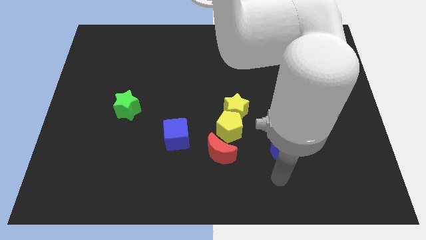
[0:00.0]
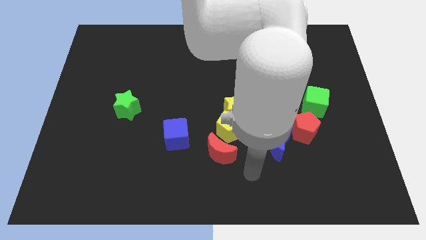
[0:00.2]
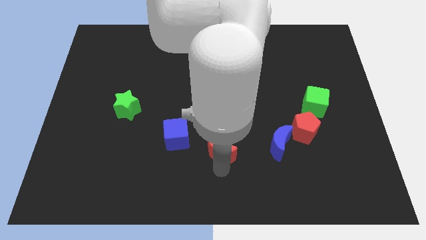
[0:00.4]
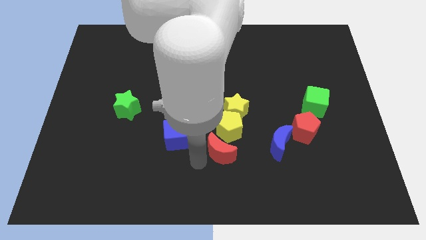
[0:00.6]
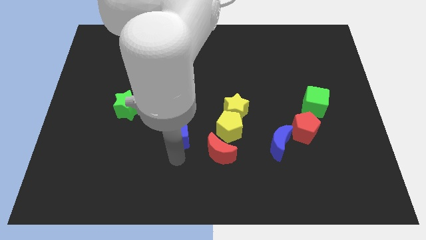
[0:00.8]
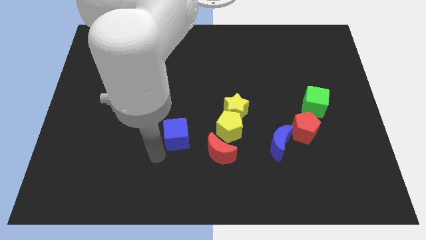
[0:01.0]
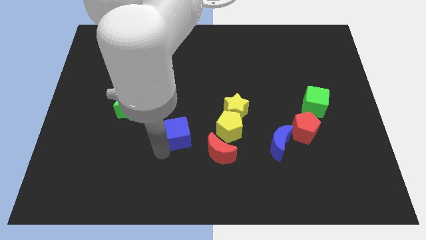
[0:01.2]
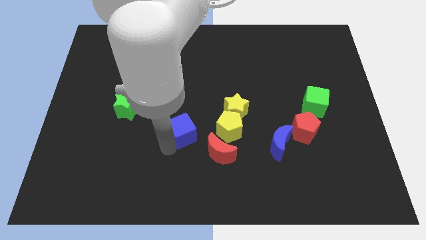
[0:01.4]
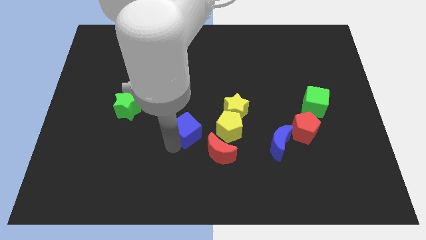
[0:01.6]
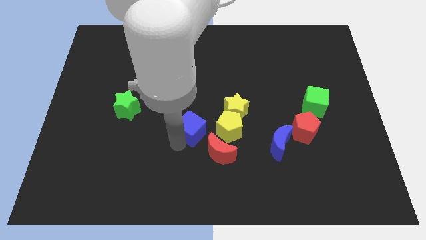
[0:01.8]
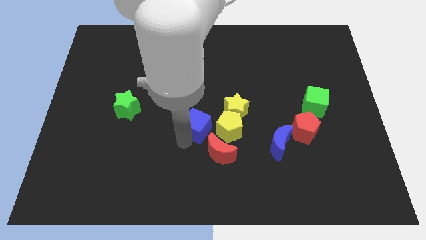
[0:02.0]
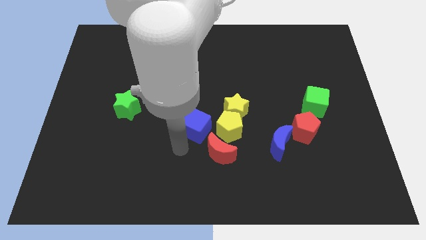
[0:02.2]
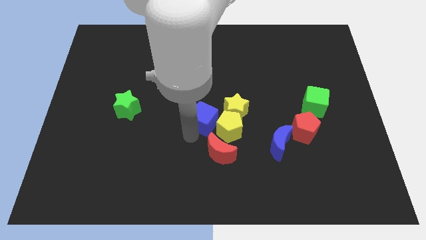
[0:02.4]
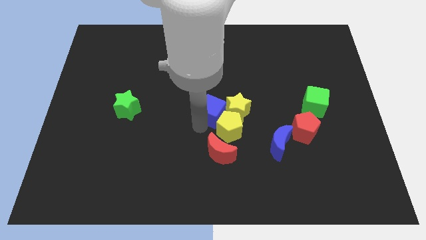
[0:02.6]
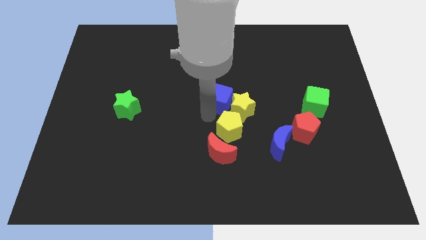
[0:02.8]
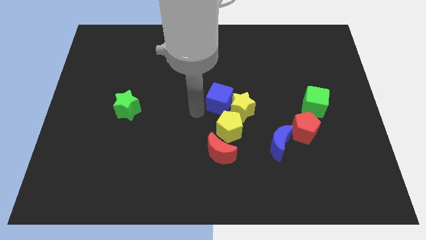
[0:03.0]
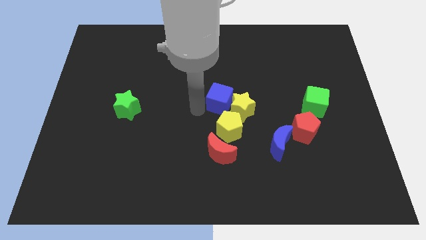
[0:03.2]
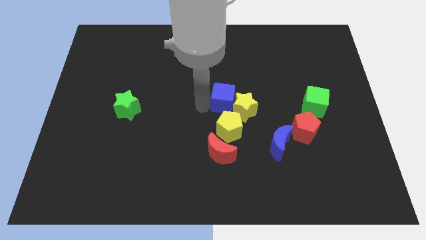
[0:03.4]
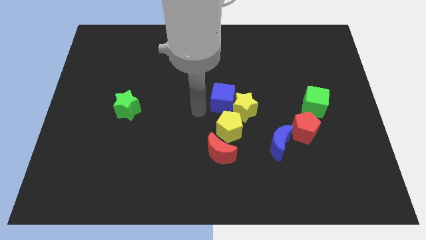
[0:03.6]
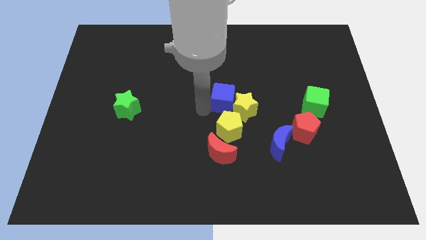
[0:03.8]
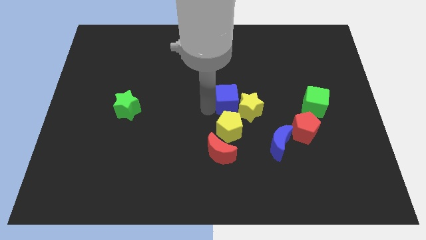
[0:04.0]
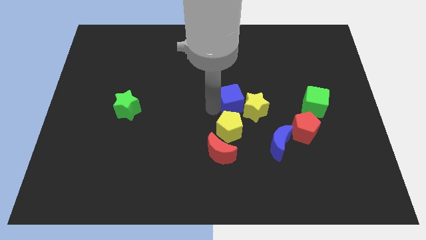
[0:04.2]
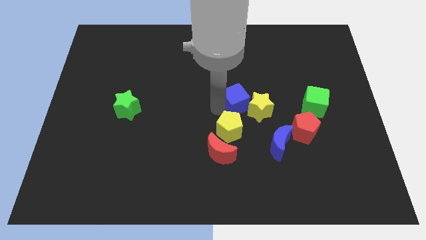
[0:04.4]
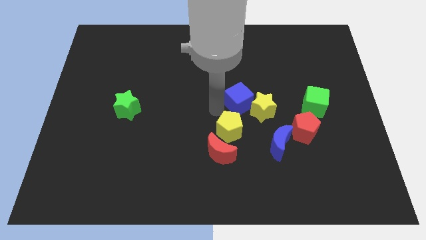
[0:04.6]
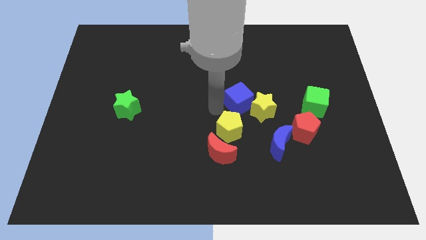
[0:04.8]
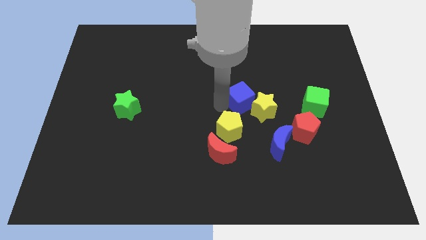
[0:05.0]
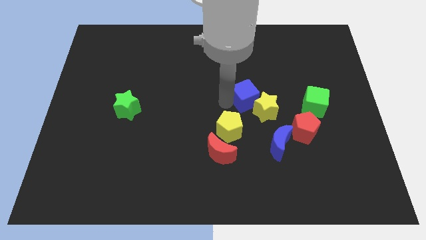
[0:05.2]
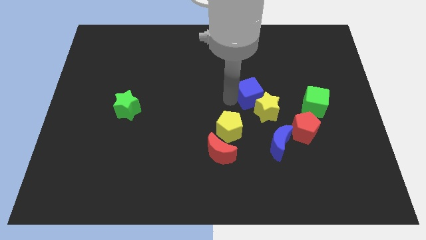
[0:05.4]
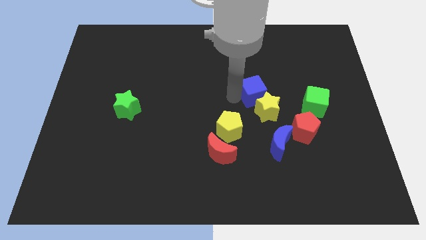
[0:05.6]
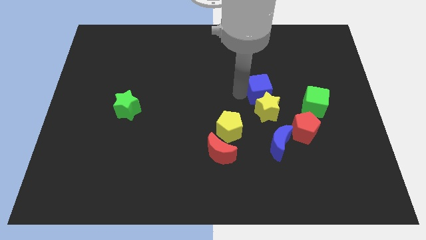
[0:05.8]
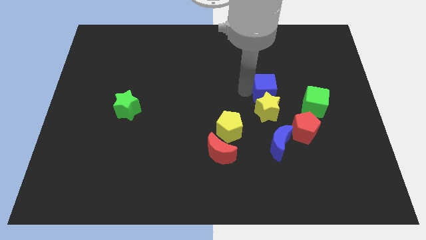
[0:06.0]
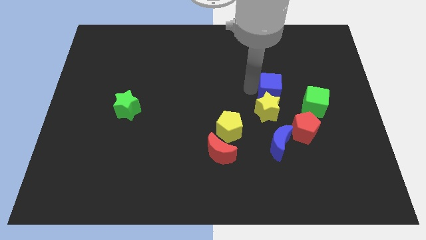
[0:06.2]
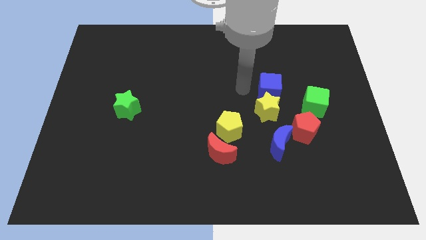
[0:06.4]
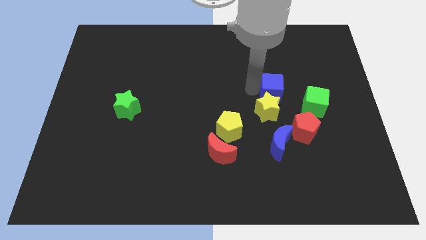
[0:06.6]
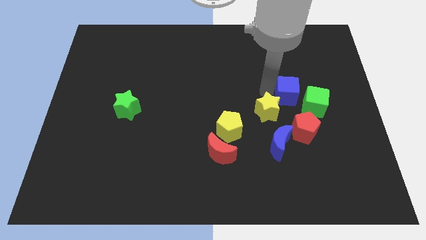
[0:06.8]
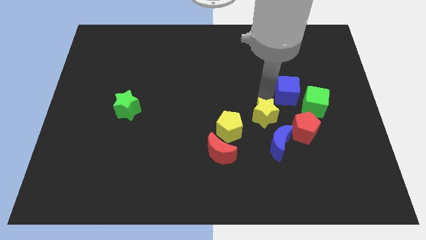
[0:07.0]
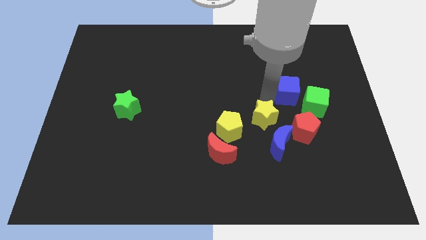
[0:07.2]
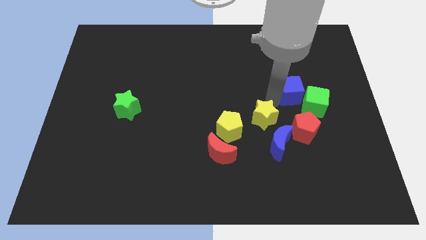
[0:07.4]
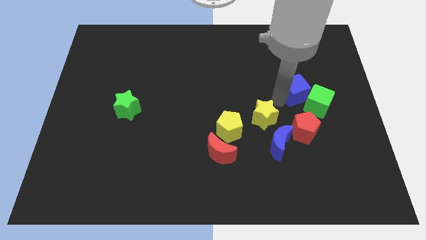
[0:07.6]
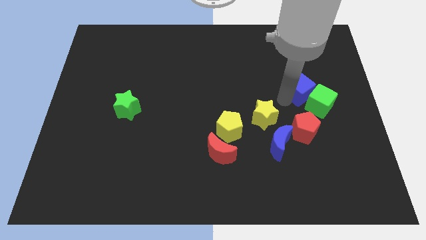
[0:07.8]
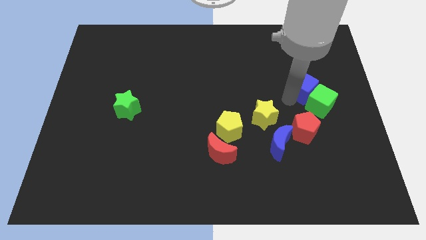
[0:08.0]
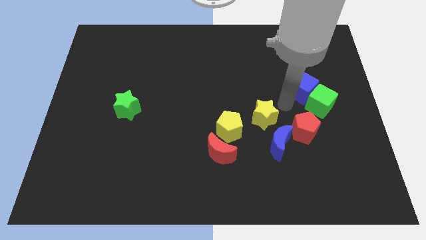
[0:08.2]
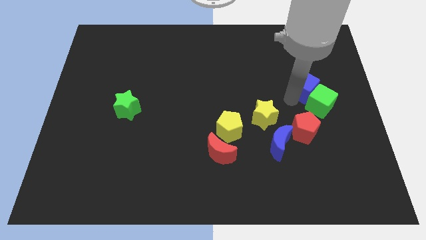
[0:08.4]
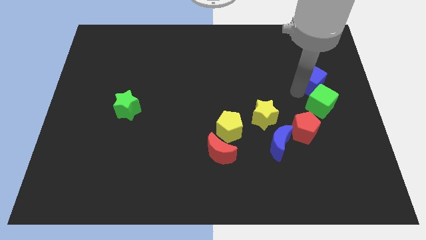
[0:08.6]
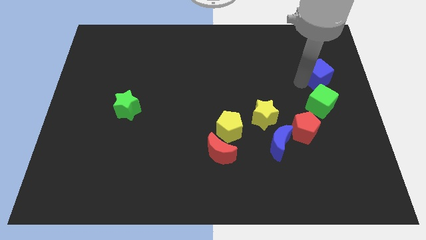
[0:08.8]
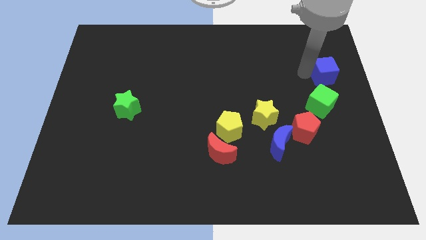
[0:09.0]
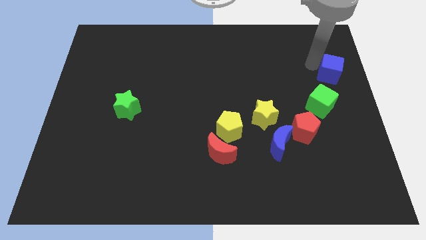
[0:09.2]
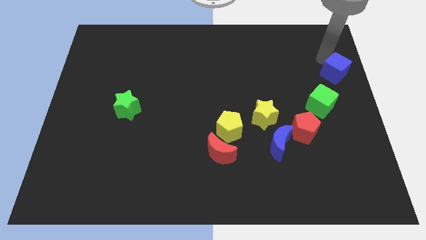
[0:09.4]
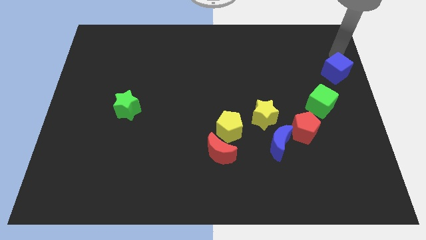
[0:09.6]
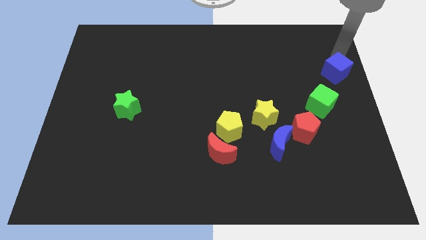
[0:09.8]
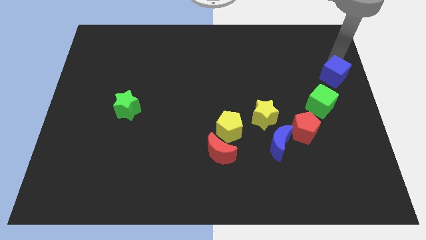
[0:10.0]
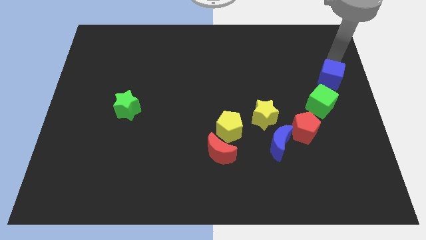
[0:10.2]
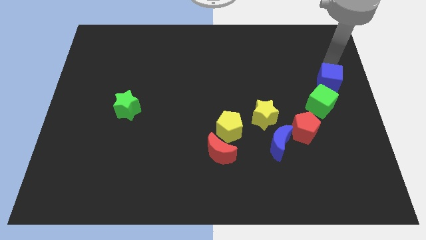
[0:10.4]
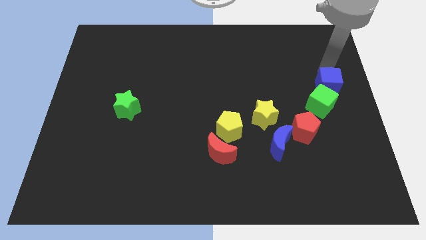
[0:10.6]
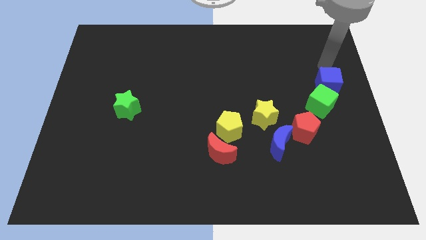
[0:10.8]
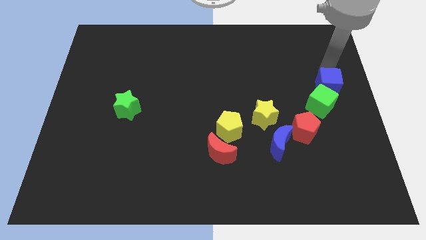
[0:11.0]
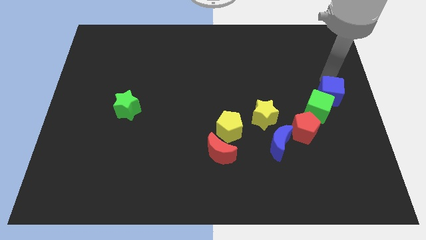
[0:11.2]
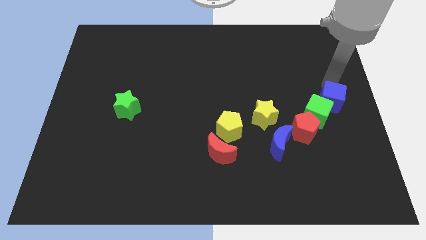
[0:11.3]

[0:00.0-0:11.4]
put the blue cube diagonally up and to the right of the red pentagon

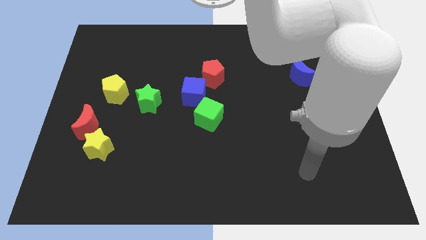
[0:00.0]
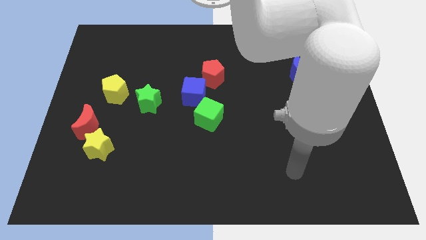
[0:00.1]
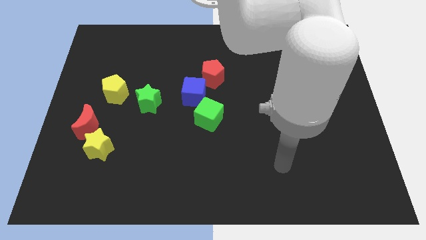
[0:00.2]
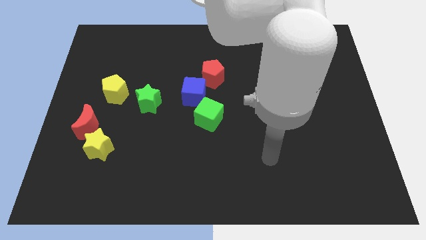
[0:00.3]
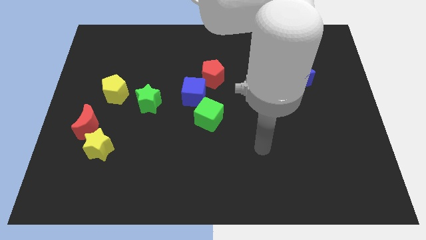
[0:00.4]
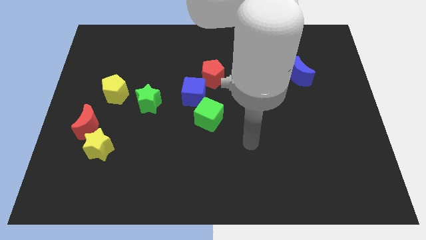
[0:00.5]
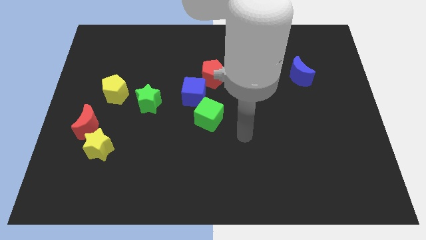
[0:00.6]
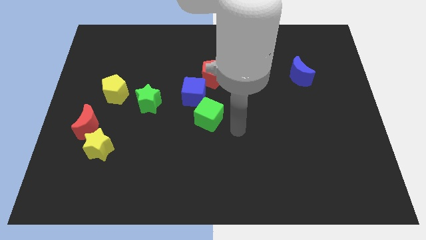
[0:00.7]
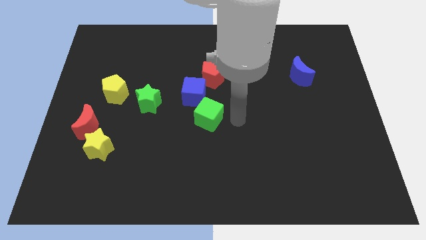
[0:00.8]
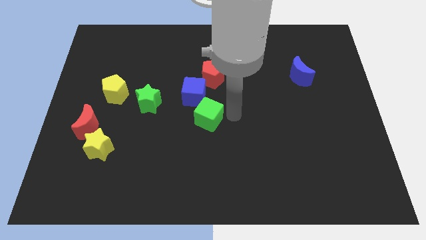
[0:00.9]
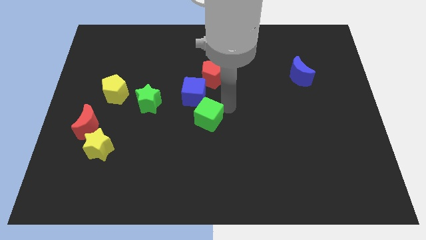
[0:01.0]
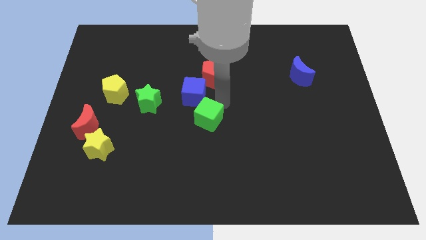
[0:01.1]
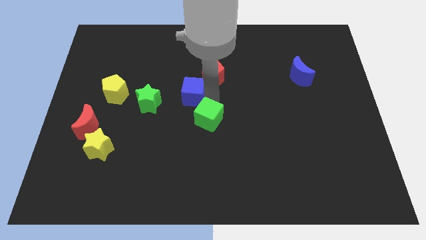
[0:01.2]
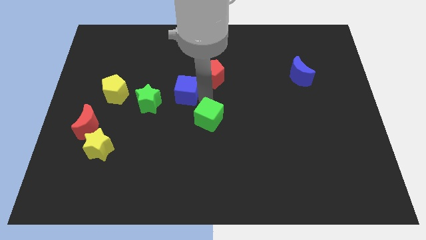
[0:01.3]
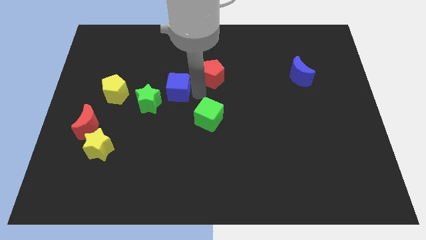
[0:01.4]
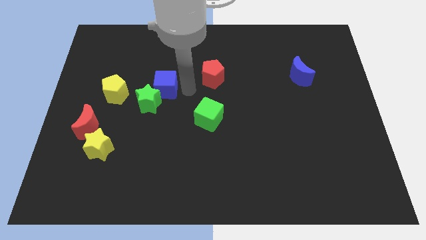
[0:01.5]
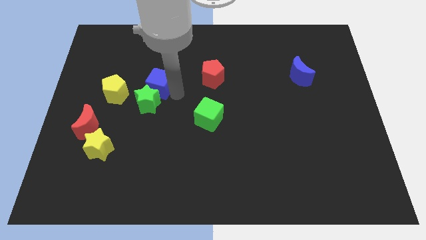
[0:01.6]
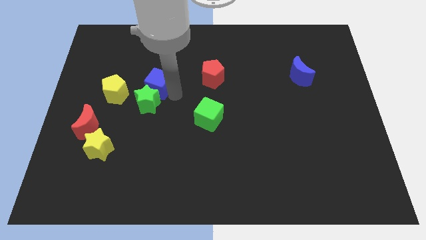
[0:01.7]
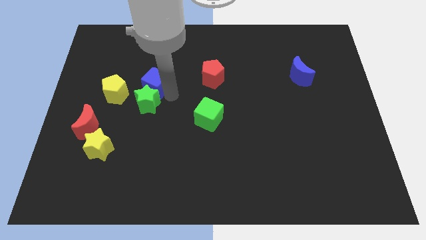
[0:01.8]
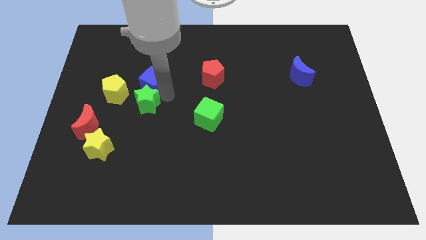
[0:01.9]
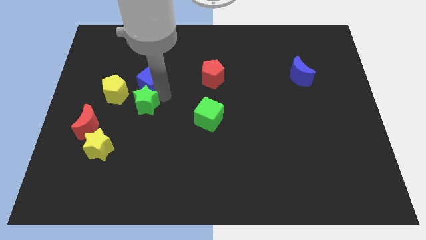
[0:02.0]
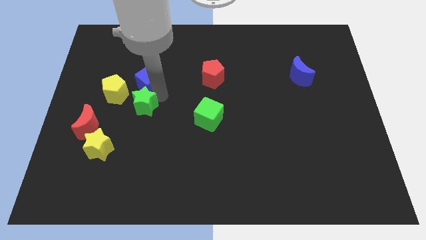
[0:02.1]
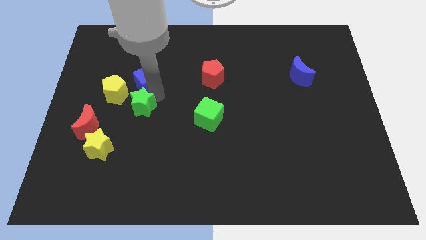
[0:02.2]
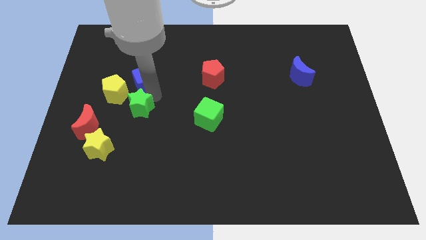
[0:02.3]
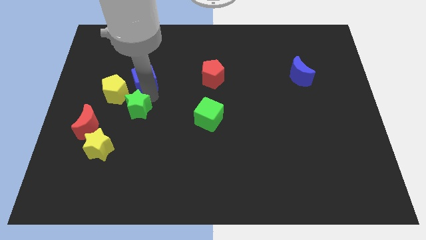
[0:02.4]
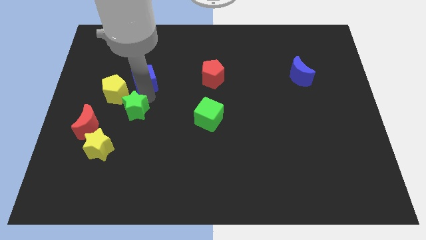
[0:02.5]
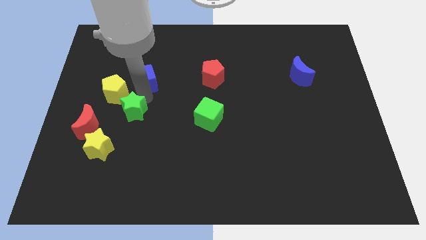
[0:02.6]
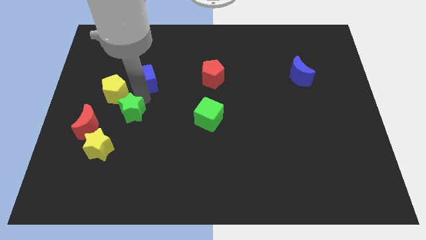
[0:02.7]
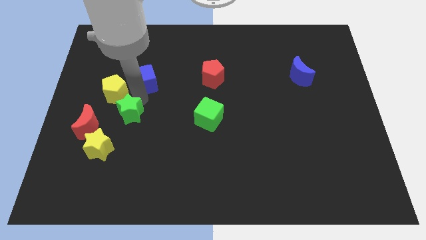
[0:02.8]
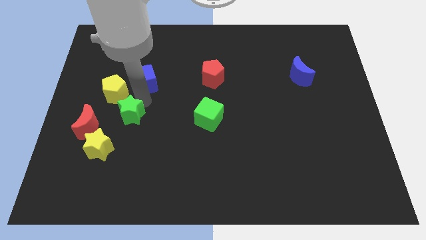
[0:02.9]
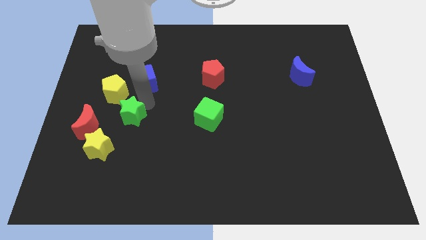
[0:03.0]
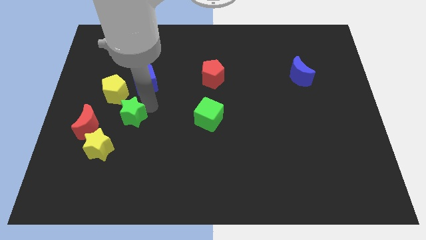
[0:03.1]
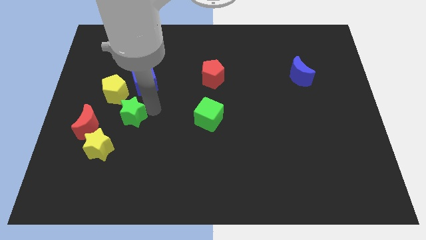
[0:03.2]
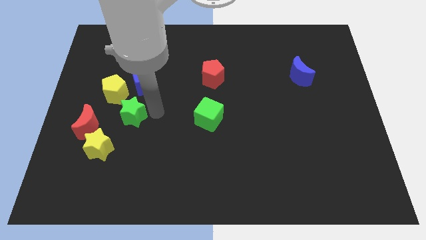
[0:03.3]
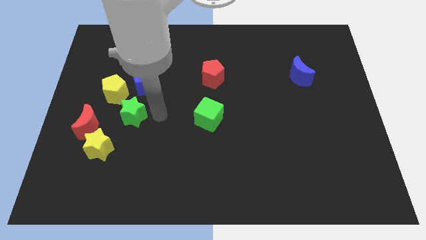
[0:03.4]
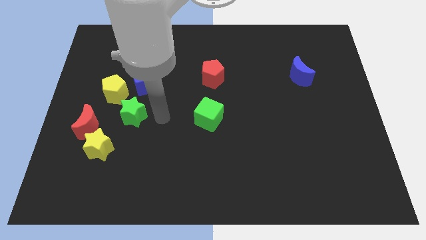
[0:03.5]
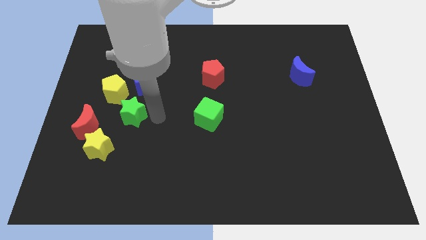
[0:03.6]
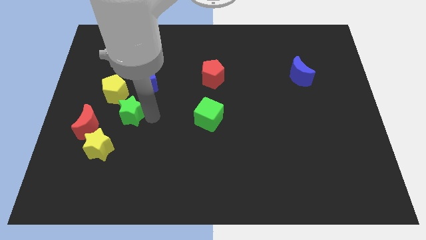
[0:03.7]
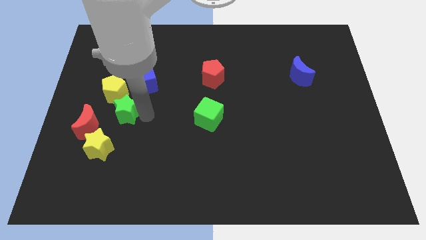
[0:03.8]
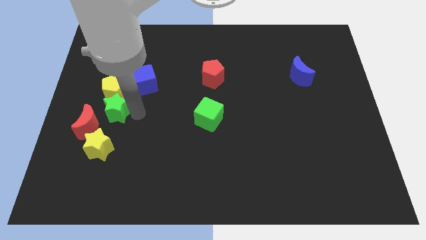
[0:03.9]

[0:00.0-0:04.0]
push the green star to the bottom left side of the yellow pentagon
